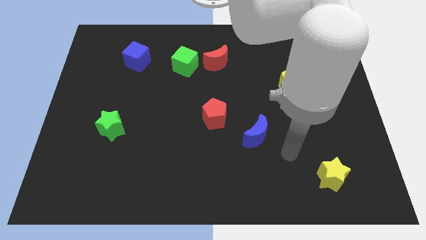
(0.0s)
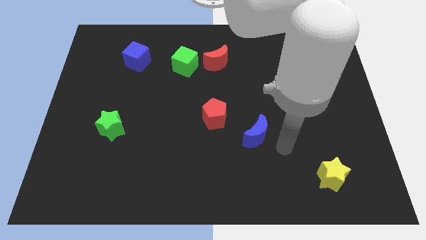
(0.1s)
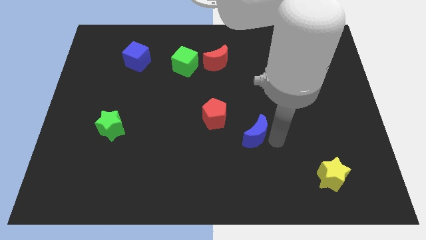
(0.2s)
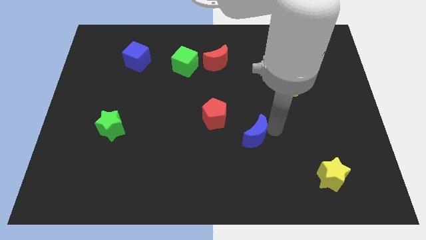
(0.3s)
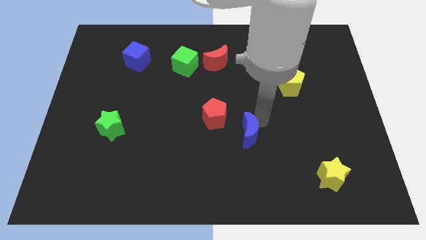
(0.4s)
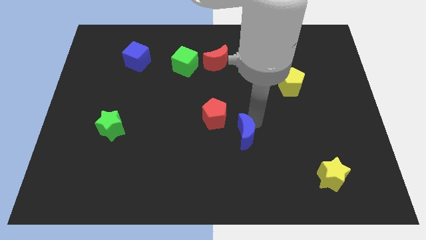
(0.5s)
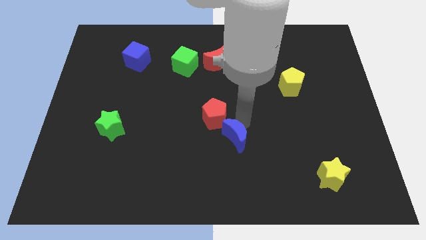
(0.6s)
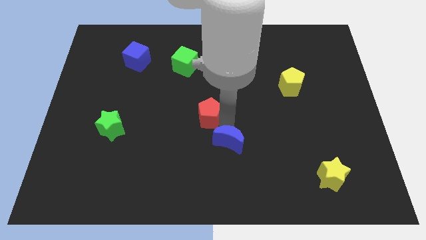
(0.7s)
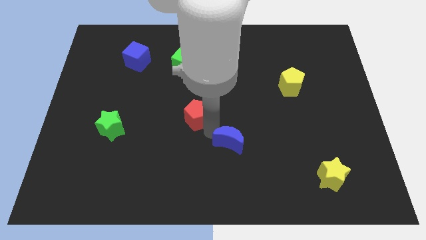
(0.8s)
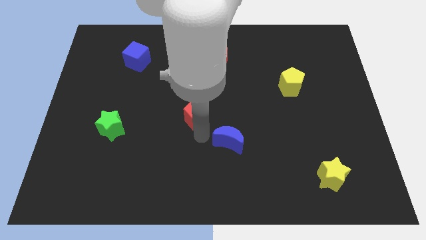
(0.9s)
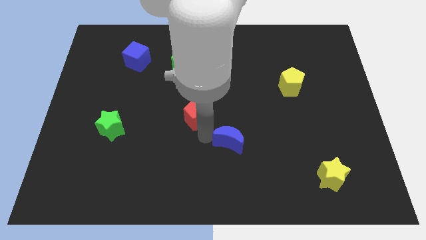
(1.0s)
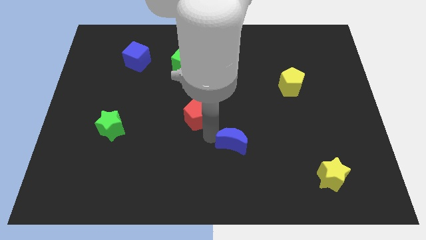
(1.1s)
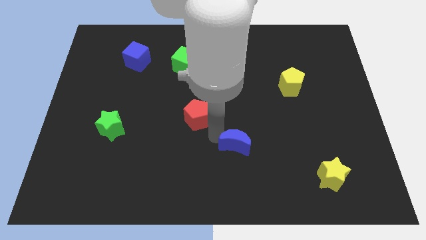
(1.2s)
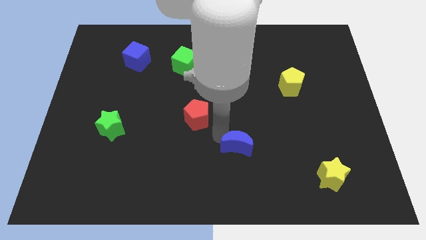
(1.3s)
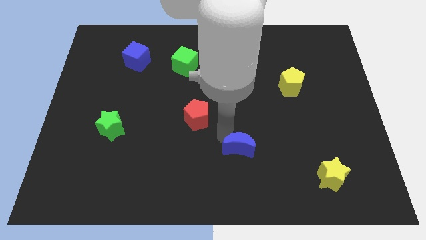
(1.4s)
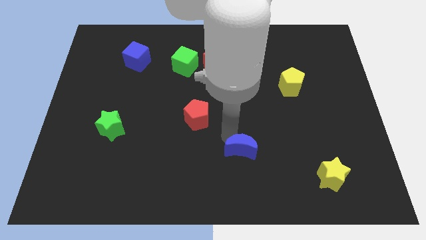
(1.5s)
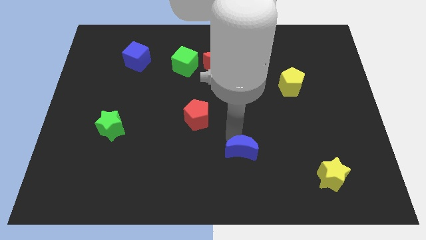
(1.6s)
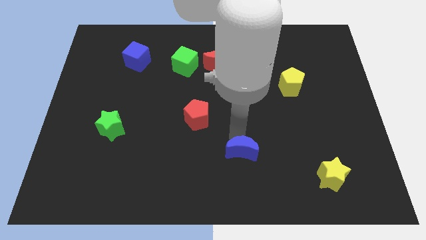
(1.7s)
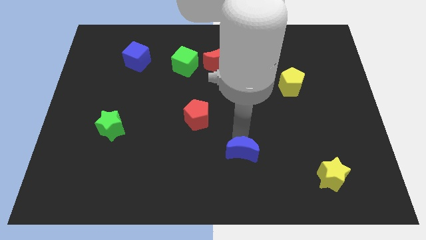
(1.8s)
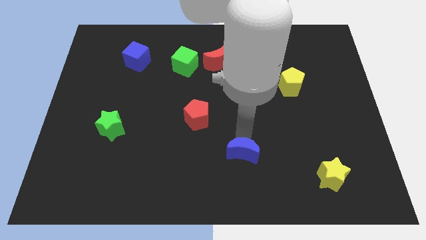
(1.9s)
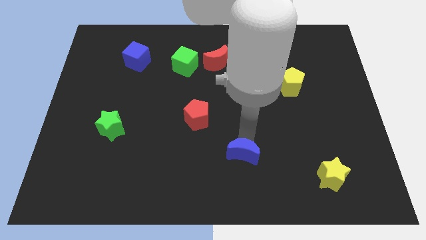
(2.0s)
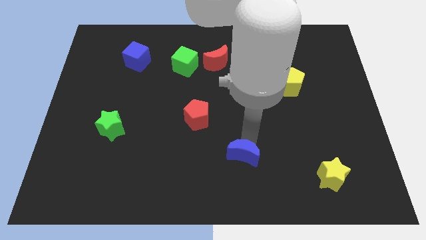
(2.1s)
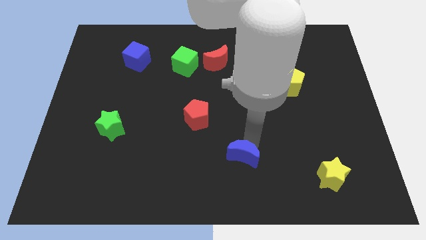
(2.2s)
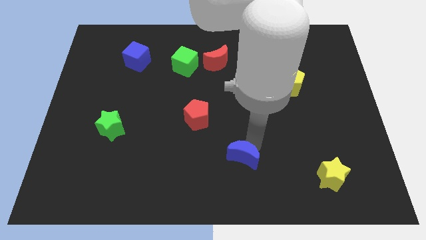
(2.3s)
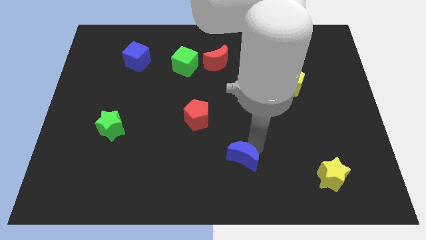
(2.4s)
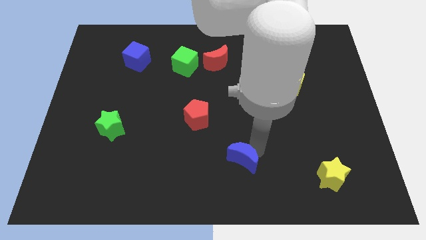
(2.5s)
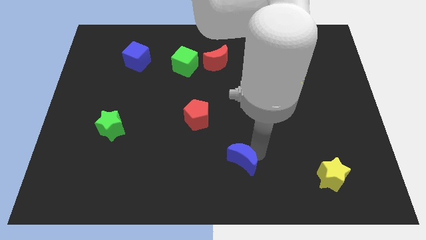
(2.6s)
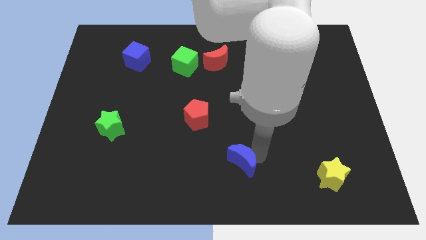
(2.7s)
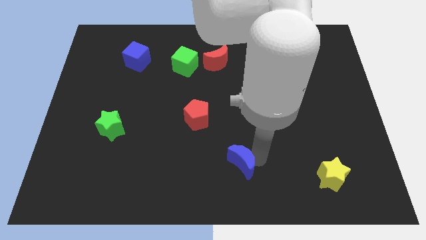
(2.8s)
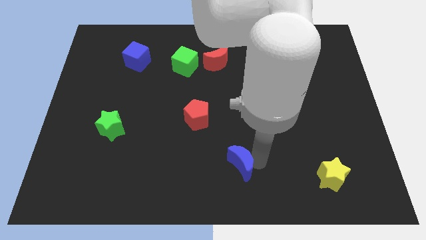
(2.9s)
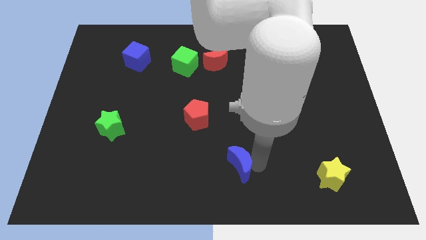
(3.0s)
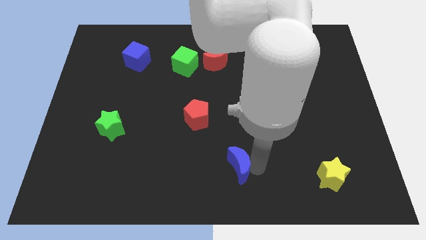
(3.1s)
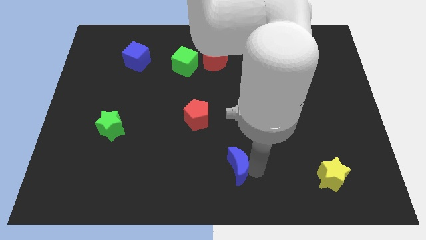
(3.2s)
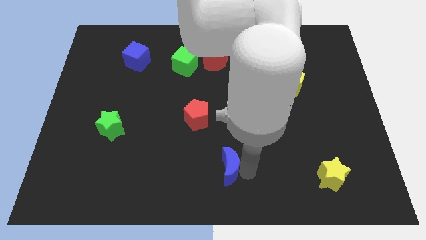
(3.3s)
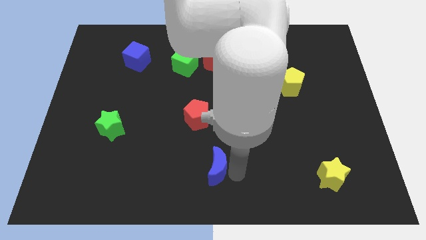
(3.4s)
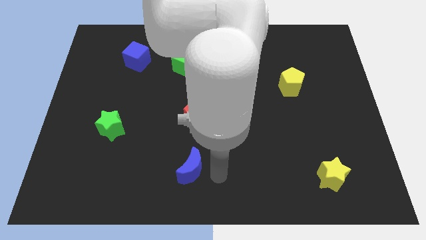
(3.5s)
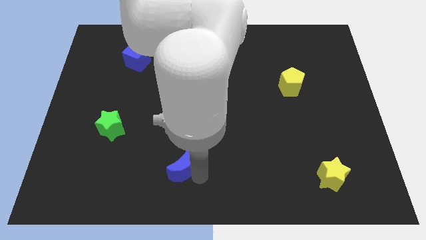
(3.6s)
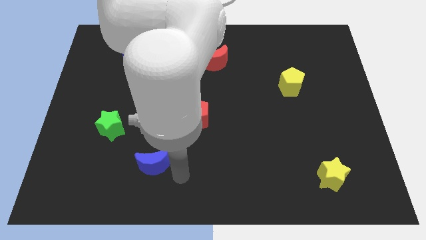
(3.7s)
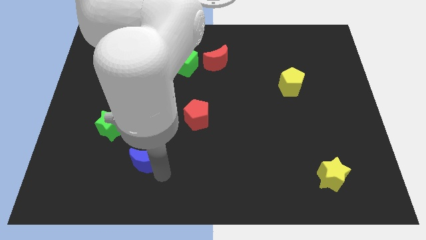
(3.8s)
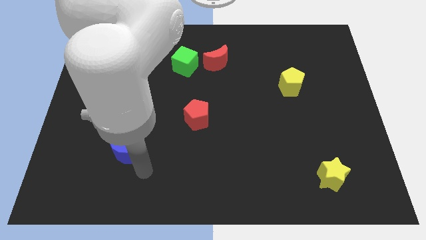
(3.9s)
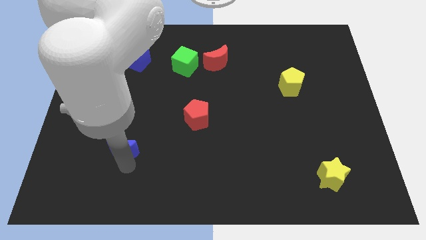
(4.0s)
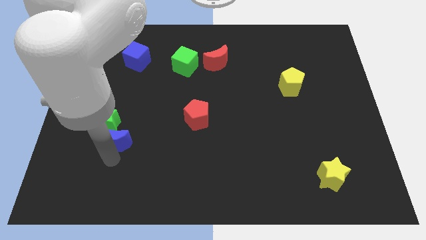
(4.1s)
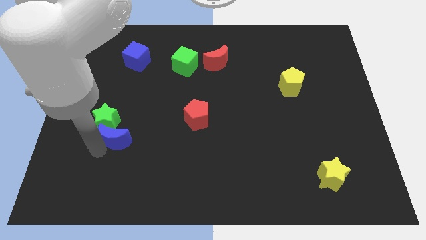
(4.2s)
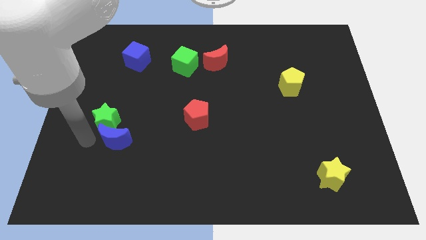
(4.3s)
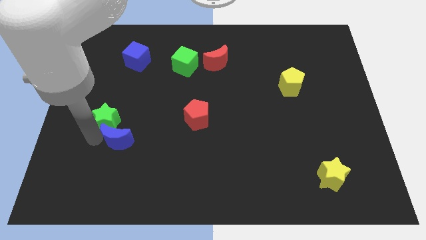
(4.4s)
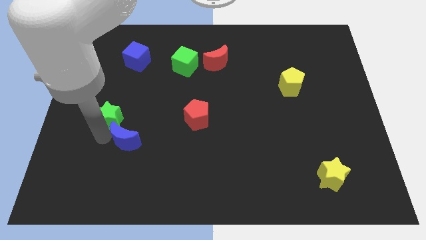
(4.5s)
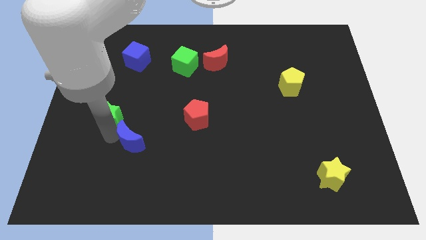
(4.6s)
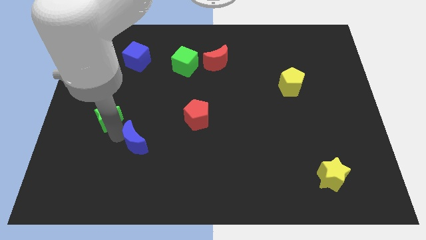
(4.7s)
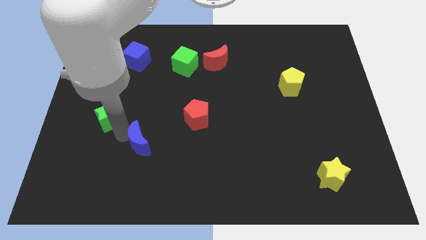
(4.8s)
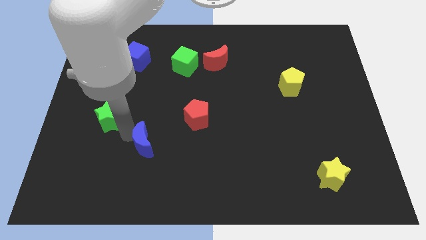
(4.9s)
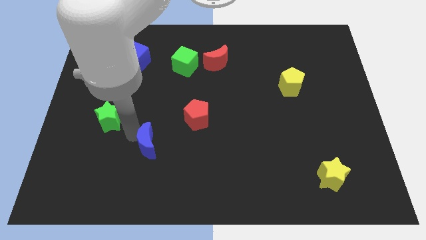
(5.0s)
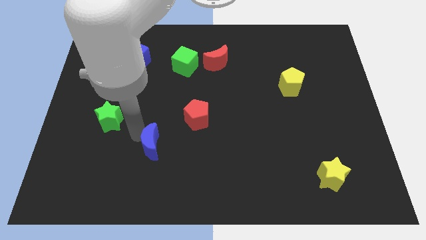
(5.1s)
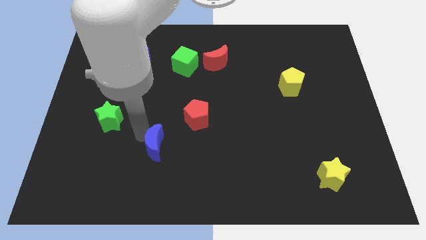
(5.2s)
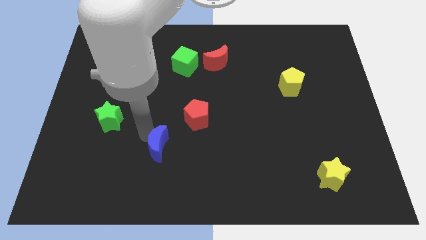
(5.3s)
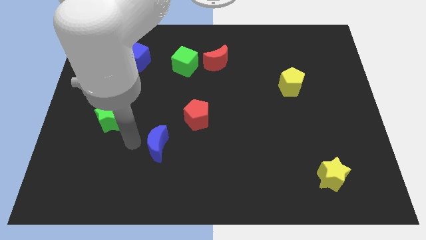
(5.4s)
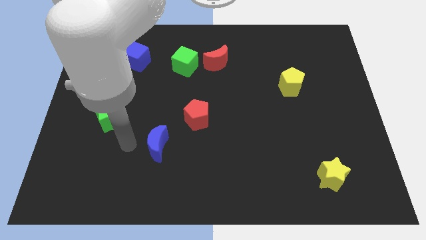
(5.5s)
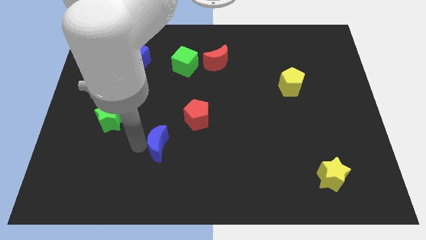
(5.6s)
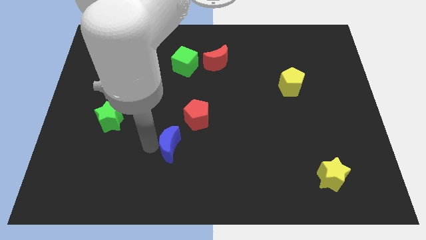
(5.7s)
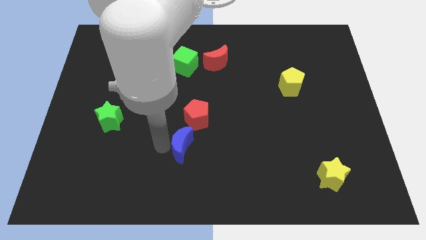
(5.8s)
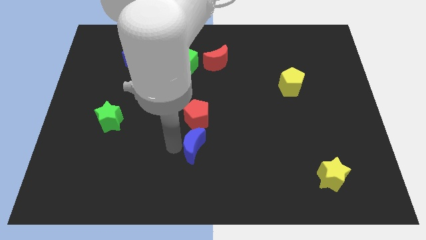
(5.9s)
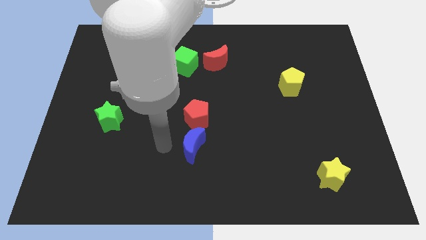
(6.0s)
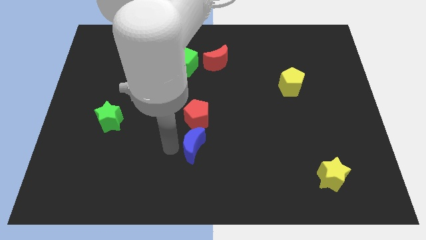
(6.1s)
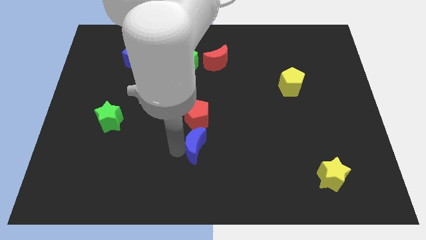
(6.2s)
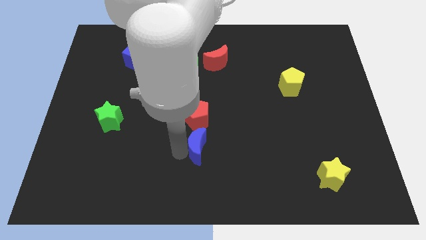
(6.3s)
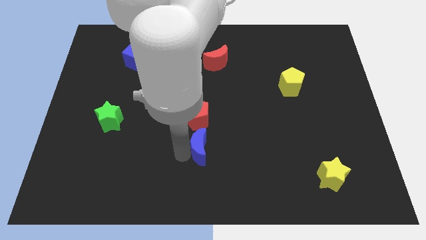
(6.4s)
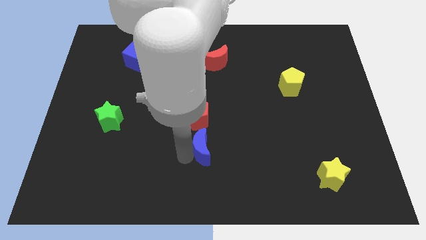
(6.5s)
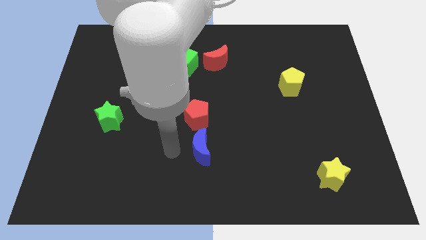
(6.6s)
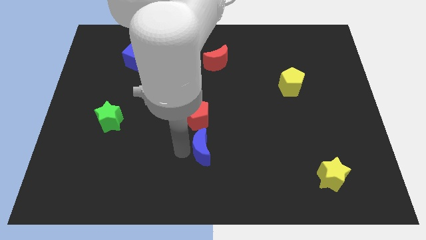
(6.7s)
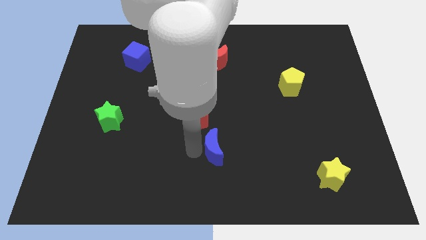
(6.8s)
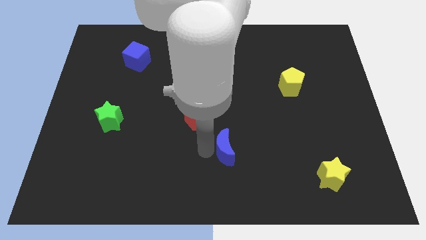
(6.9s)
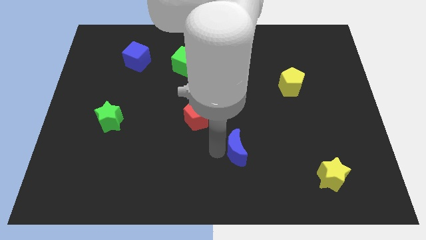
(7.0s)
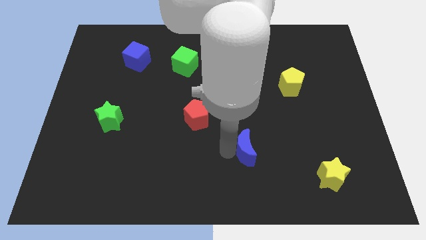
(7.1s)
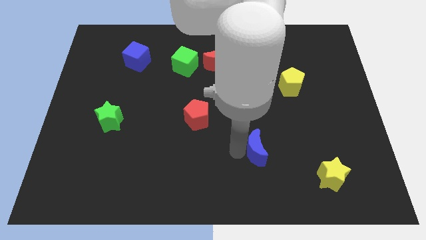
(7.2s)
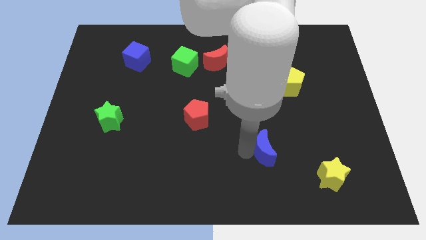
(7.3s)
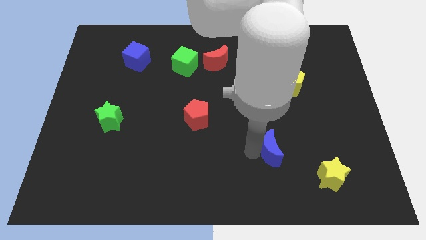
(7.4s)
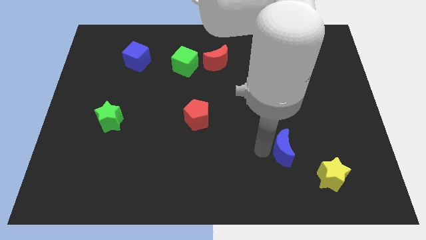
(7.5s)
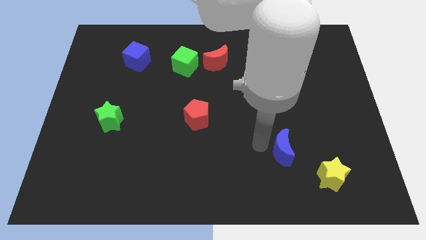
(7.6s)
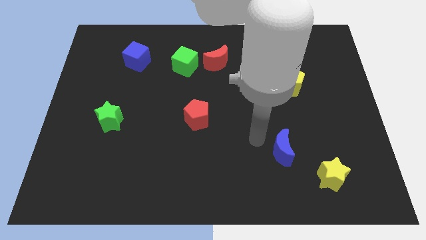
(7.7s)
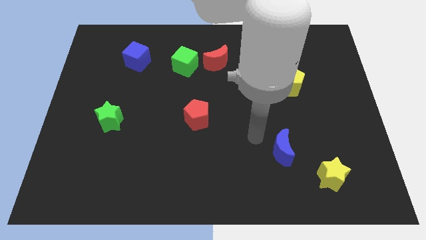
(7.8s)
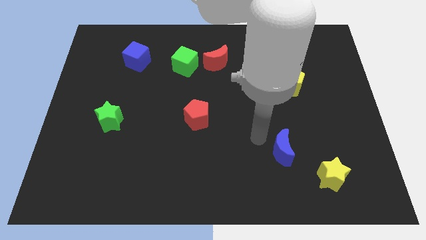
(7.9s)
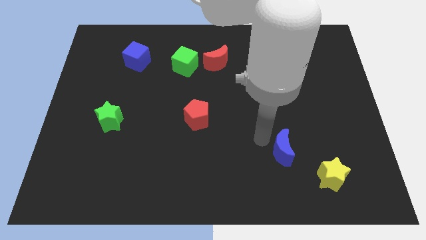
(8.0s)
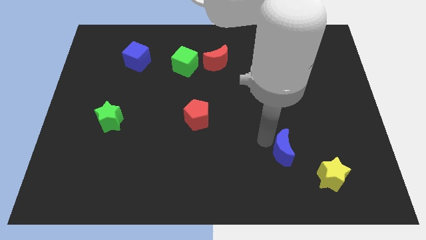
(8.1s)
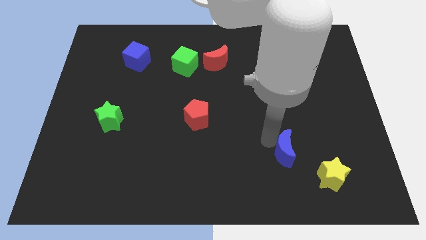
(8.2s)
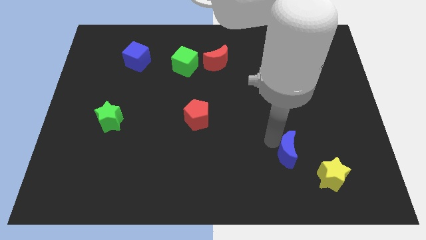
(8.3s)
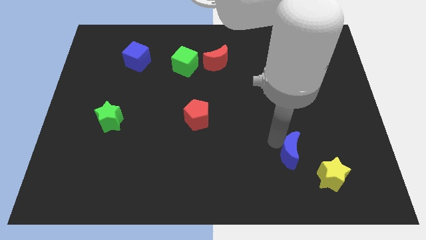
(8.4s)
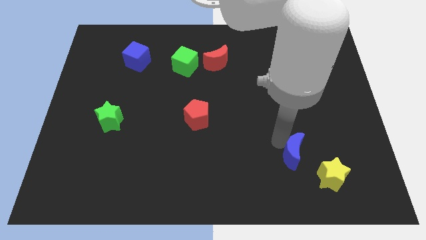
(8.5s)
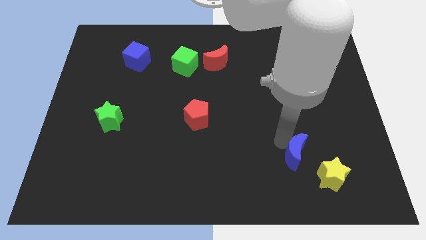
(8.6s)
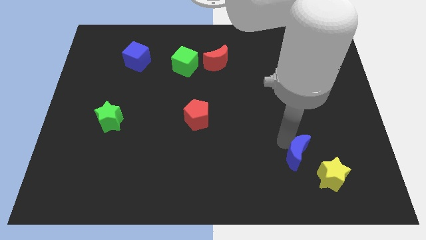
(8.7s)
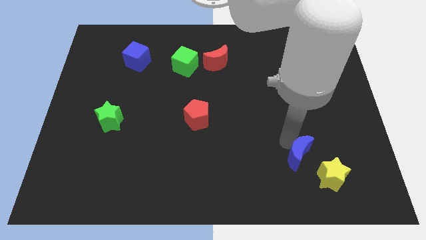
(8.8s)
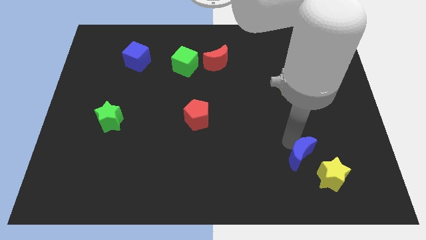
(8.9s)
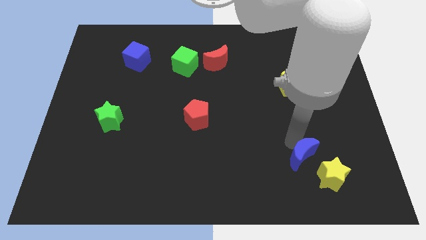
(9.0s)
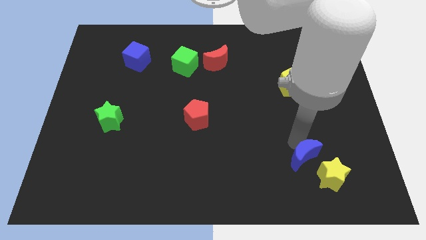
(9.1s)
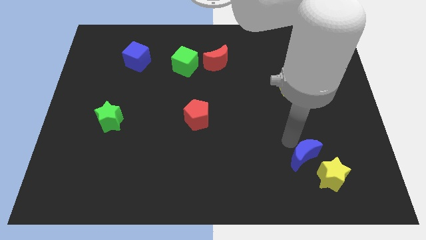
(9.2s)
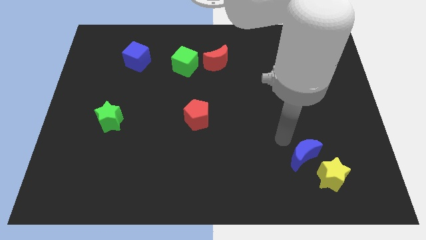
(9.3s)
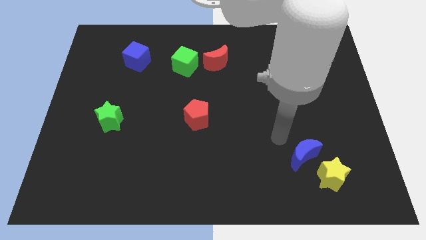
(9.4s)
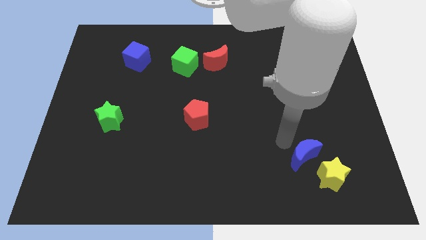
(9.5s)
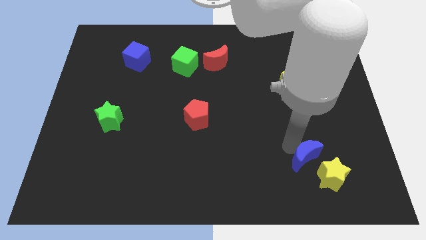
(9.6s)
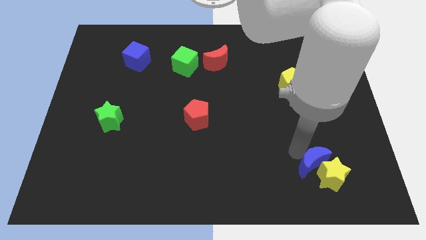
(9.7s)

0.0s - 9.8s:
put the blue moon close to the yellow star
